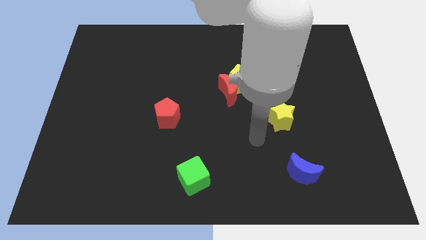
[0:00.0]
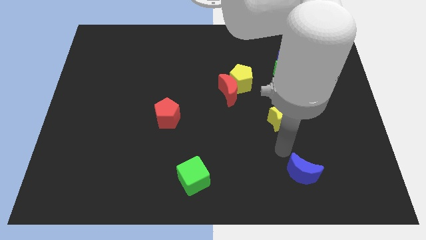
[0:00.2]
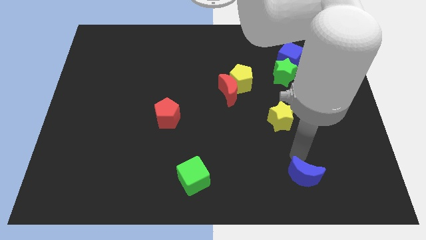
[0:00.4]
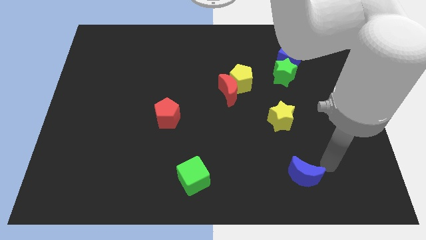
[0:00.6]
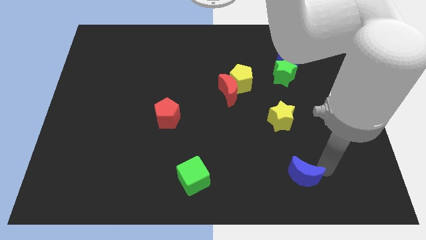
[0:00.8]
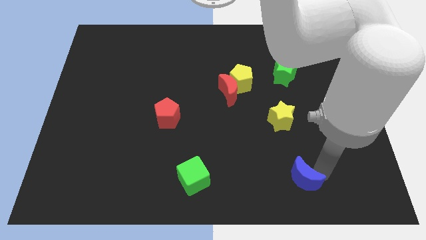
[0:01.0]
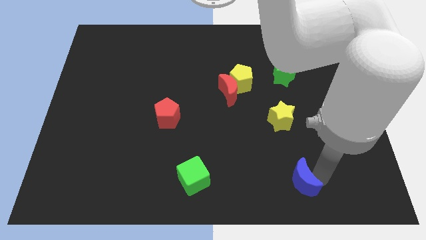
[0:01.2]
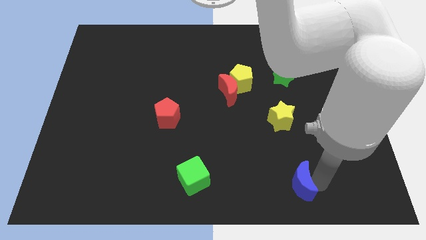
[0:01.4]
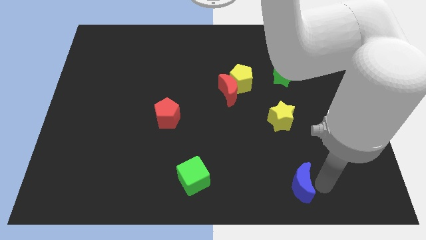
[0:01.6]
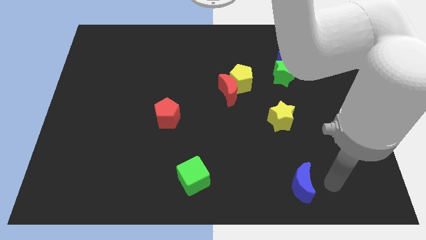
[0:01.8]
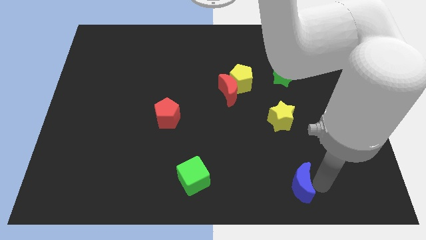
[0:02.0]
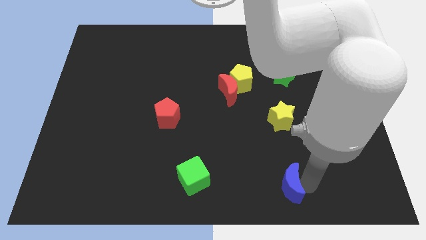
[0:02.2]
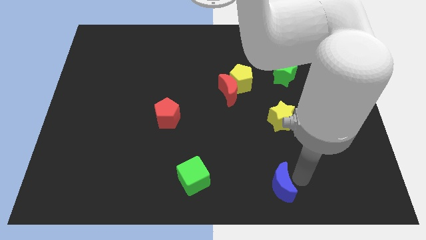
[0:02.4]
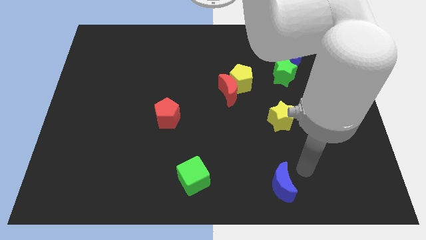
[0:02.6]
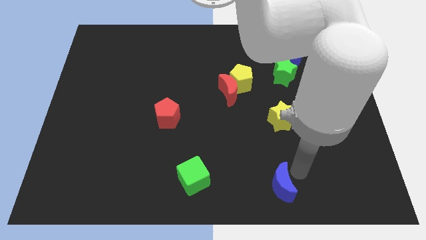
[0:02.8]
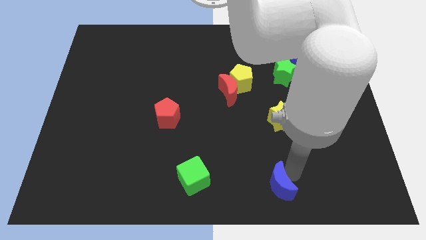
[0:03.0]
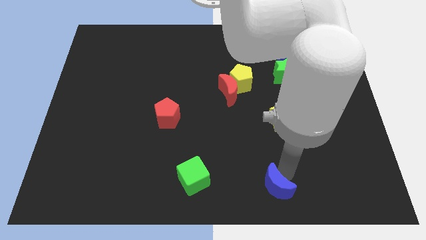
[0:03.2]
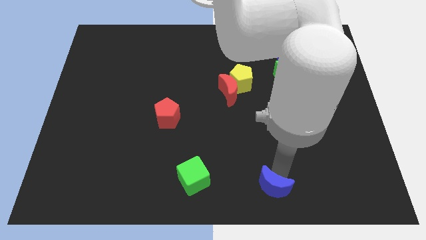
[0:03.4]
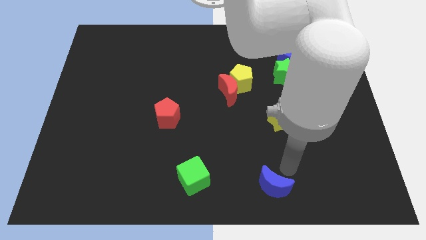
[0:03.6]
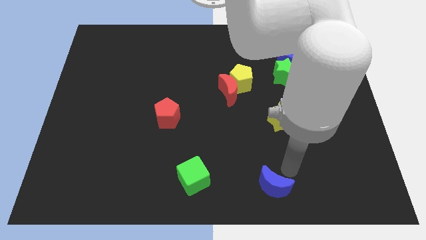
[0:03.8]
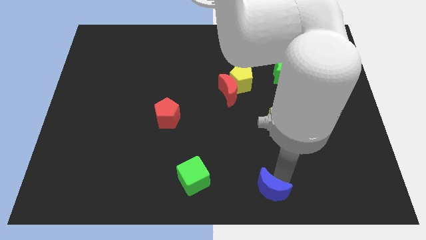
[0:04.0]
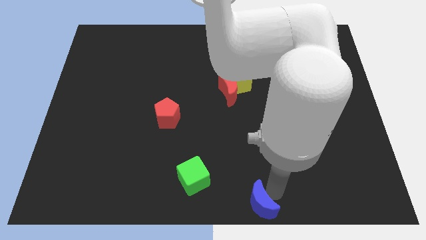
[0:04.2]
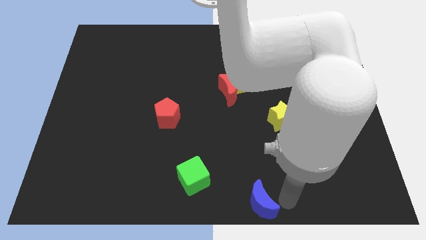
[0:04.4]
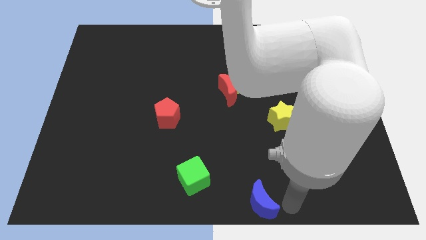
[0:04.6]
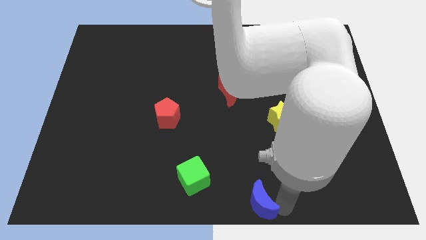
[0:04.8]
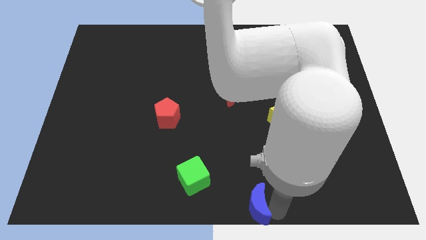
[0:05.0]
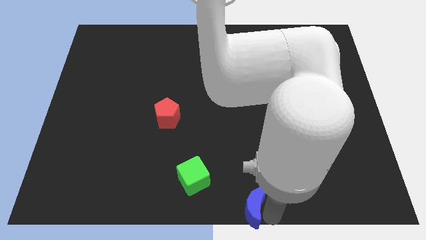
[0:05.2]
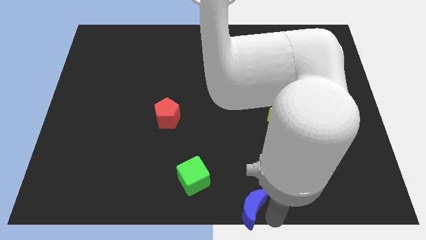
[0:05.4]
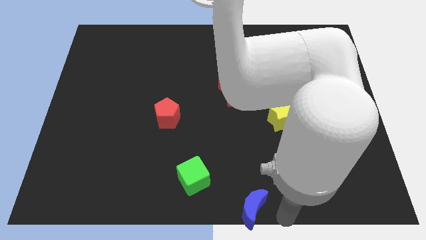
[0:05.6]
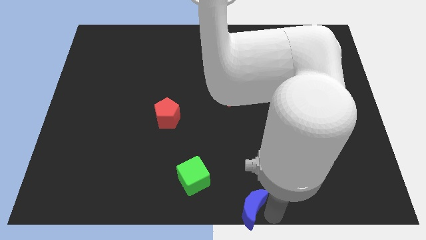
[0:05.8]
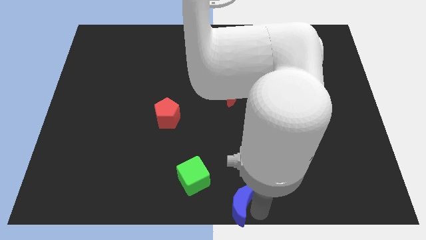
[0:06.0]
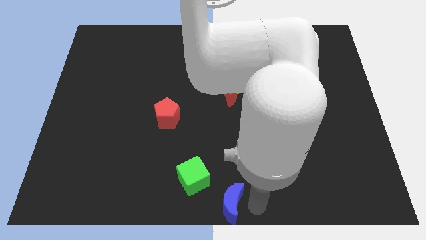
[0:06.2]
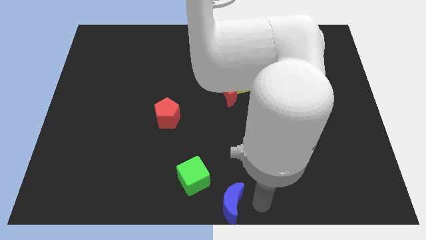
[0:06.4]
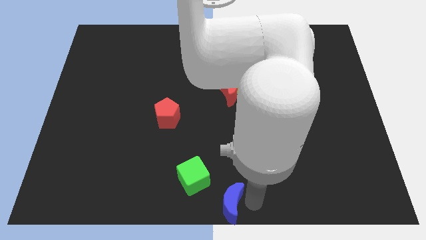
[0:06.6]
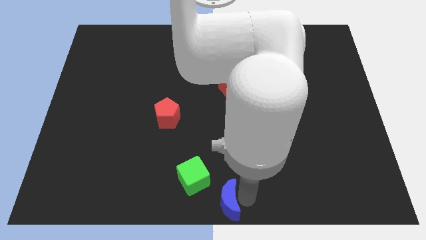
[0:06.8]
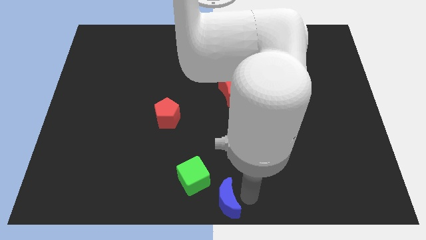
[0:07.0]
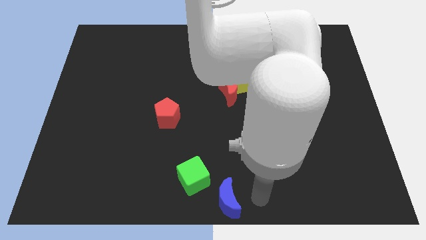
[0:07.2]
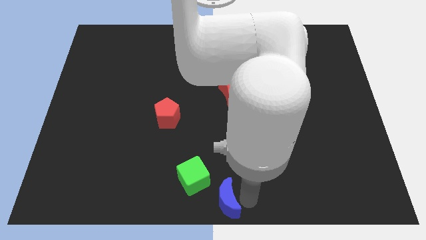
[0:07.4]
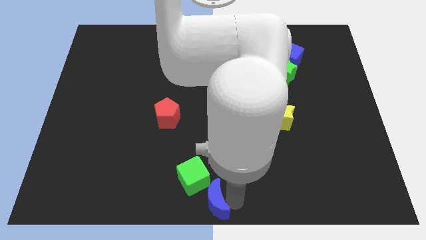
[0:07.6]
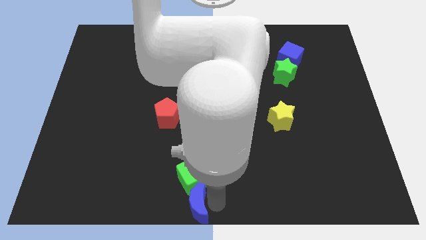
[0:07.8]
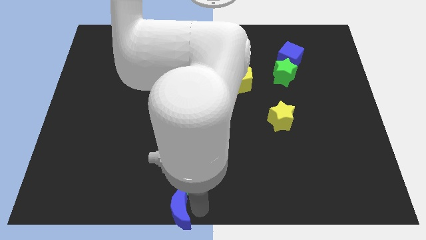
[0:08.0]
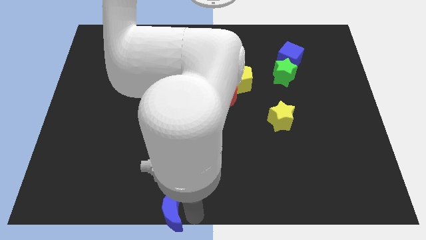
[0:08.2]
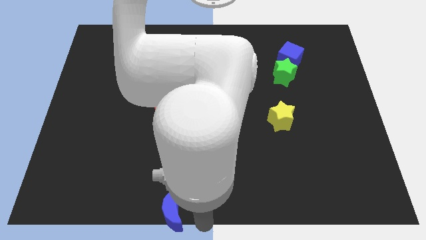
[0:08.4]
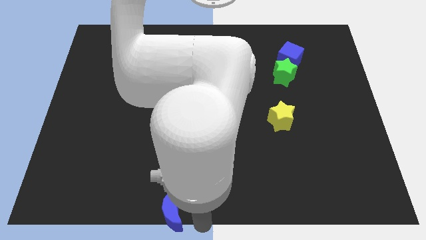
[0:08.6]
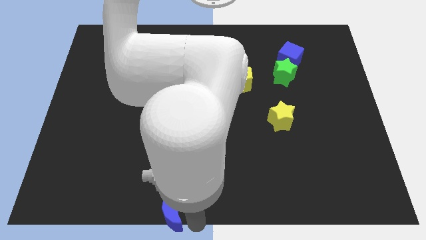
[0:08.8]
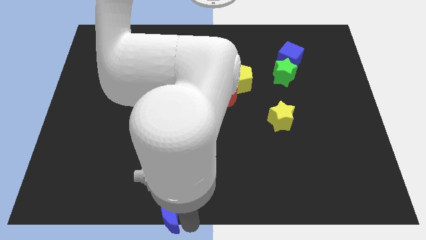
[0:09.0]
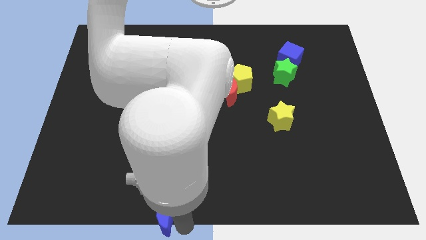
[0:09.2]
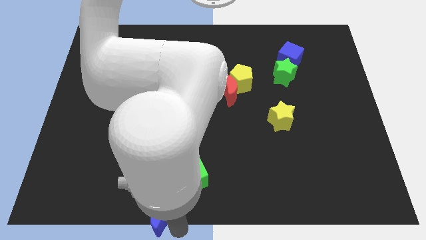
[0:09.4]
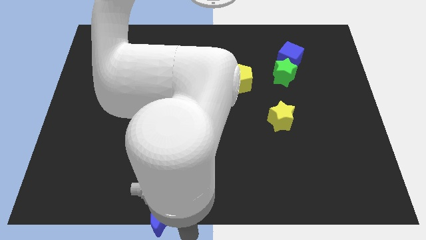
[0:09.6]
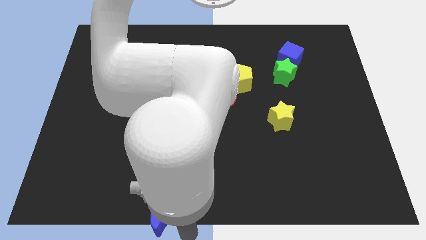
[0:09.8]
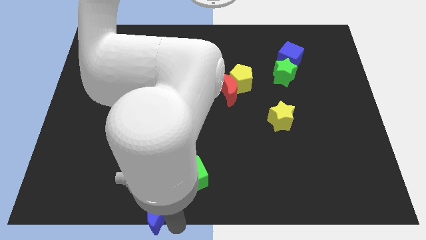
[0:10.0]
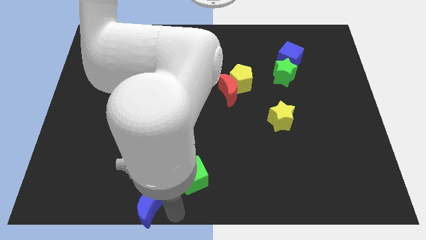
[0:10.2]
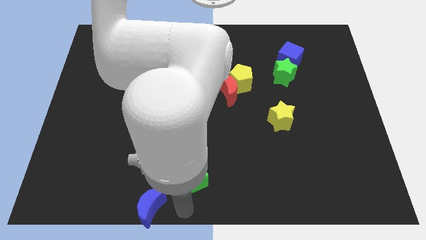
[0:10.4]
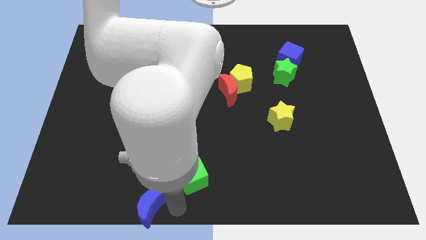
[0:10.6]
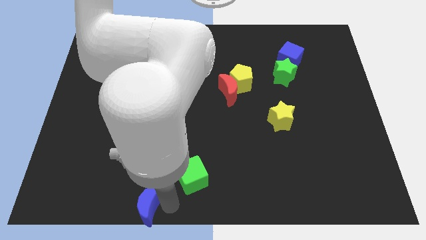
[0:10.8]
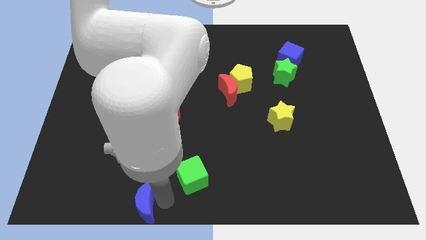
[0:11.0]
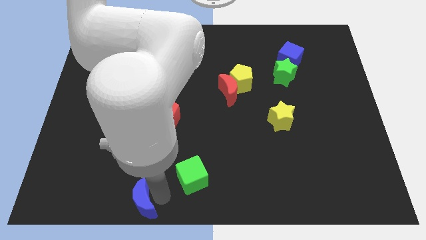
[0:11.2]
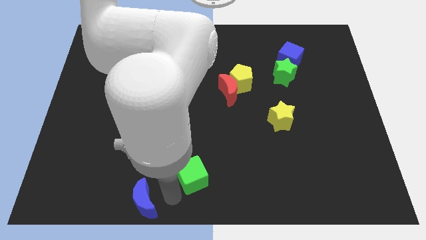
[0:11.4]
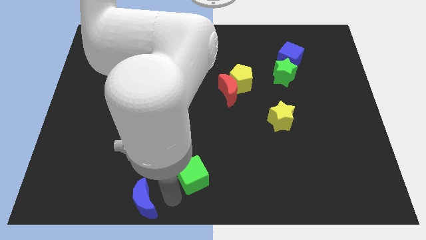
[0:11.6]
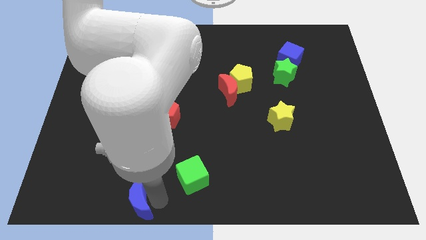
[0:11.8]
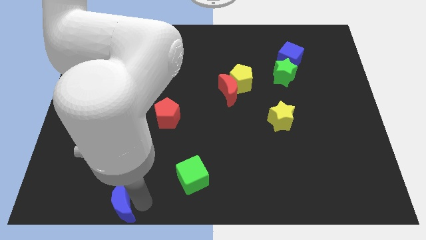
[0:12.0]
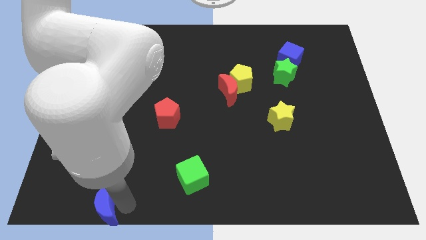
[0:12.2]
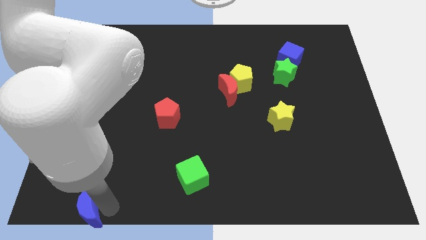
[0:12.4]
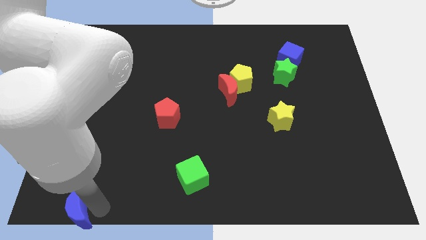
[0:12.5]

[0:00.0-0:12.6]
put the blue moon to the bottom left

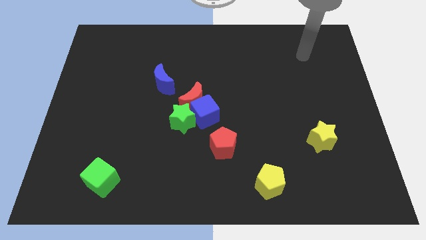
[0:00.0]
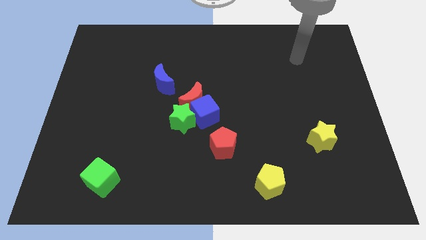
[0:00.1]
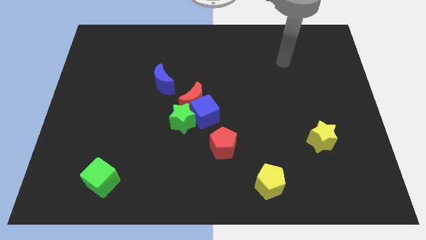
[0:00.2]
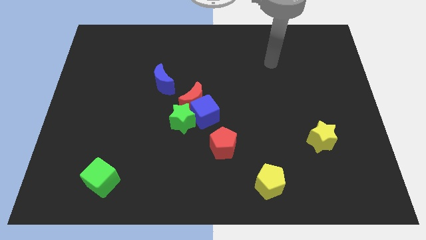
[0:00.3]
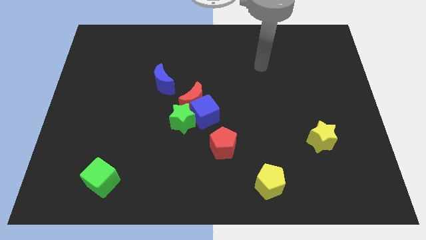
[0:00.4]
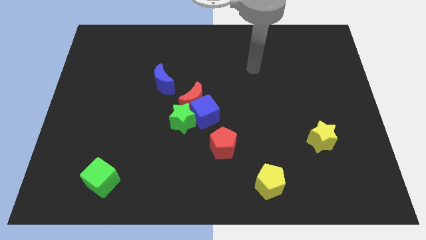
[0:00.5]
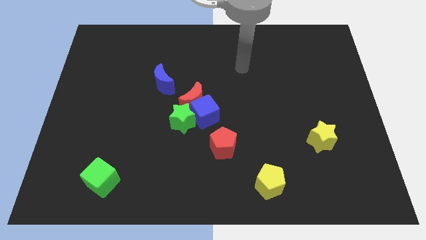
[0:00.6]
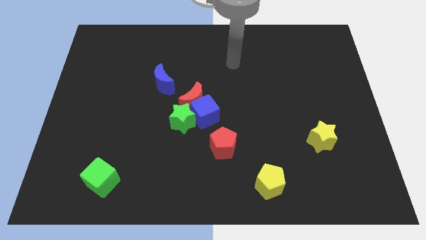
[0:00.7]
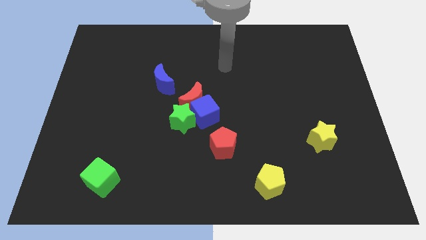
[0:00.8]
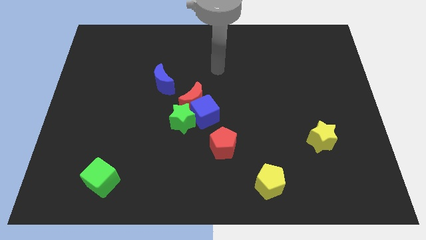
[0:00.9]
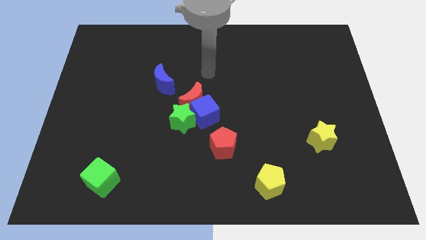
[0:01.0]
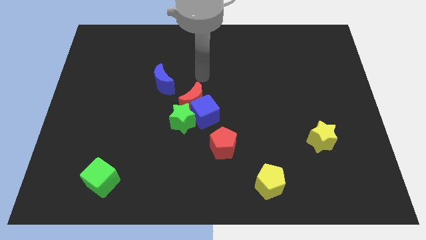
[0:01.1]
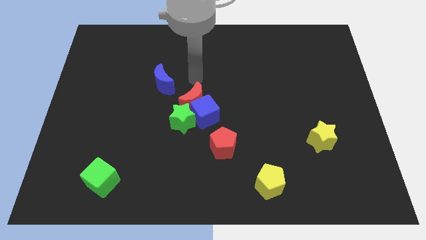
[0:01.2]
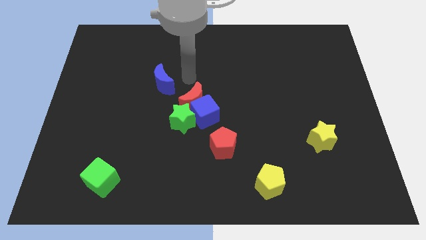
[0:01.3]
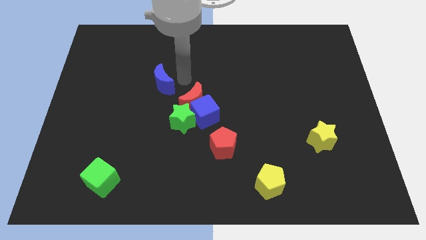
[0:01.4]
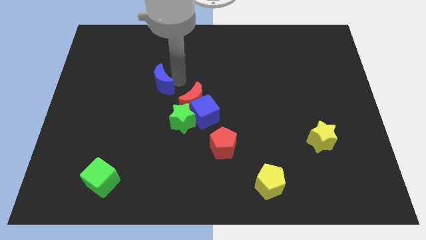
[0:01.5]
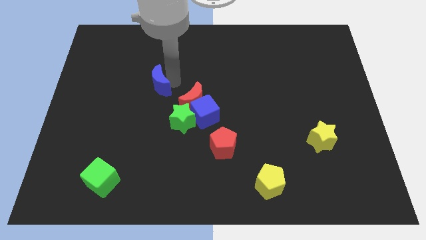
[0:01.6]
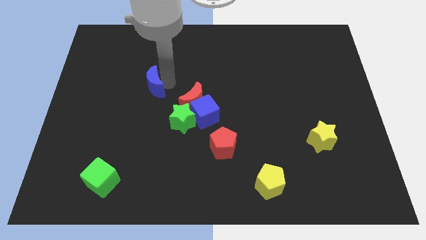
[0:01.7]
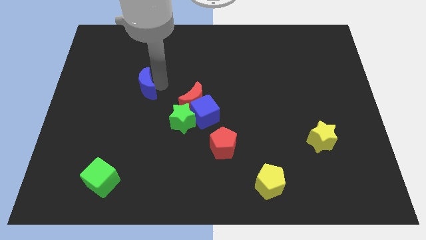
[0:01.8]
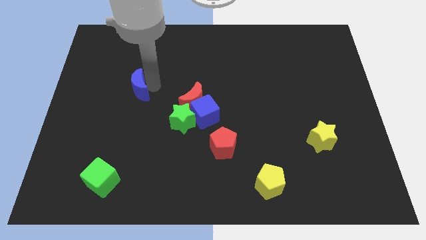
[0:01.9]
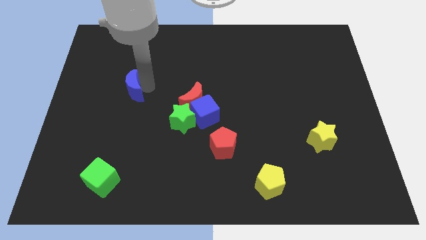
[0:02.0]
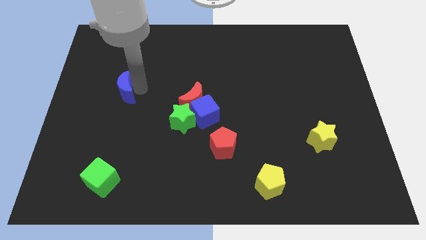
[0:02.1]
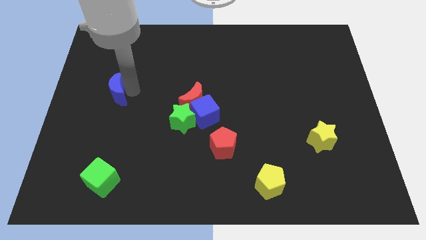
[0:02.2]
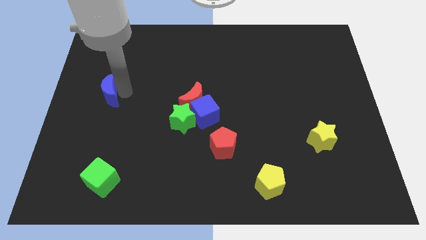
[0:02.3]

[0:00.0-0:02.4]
push the blue moon to the center left
